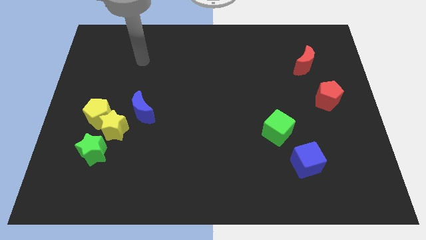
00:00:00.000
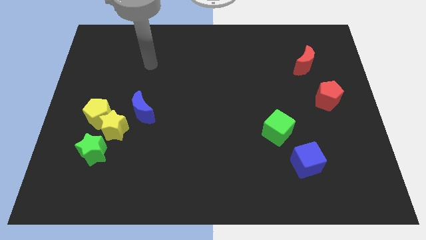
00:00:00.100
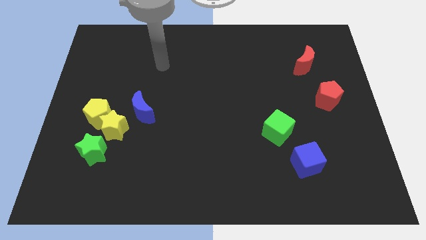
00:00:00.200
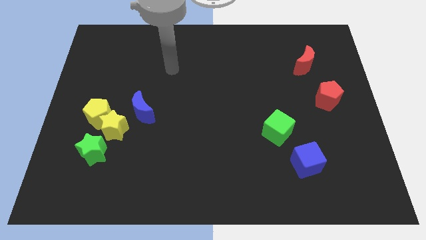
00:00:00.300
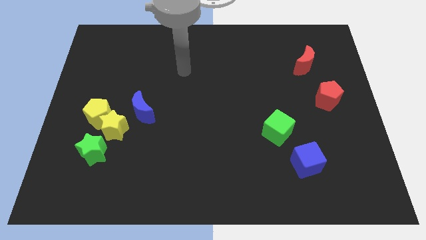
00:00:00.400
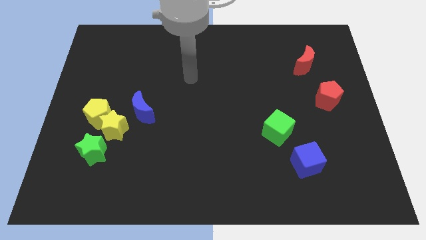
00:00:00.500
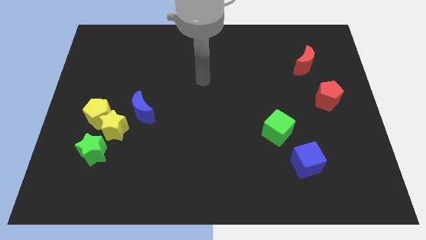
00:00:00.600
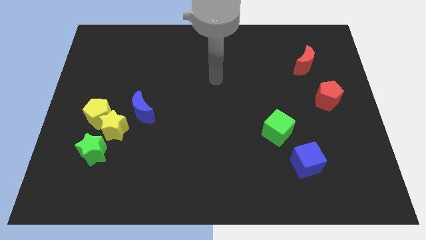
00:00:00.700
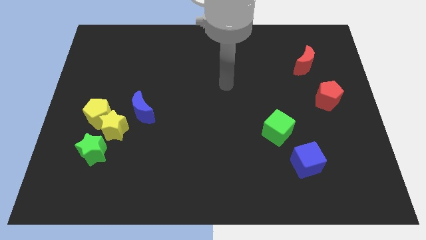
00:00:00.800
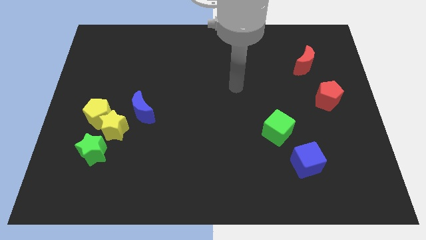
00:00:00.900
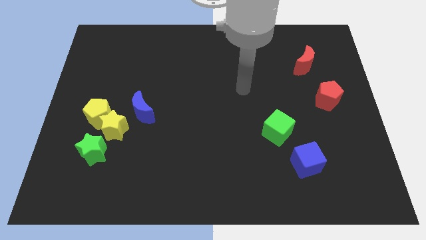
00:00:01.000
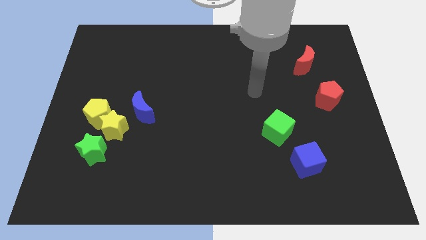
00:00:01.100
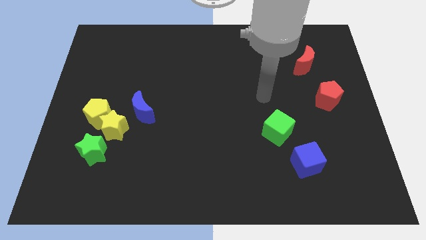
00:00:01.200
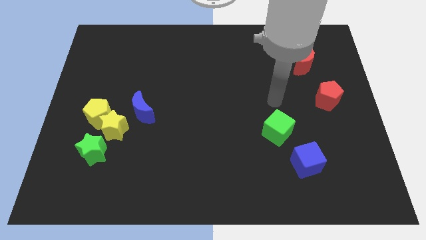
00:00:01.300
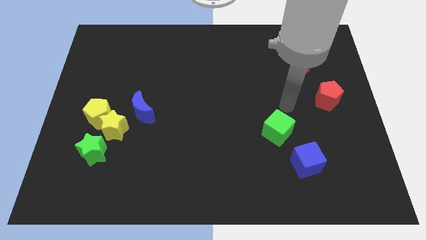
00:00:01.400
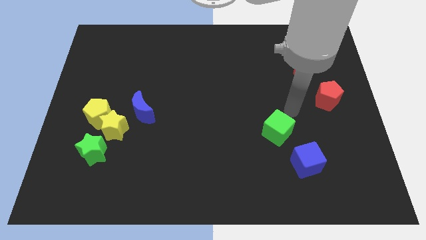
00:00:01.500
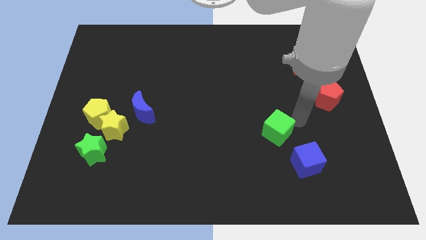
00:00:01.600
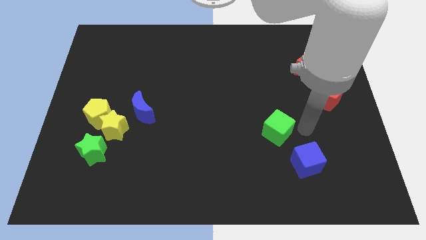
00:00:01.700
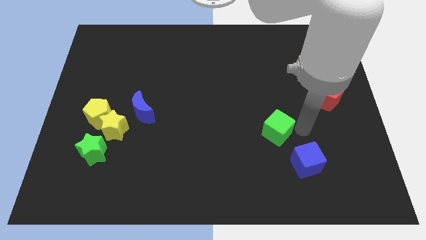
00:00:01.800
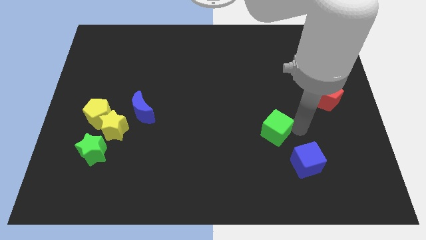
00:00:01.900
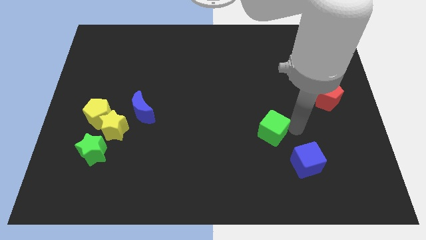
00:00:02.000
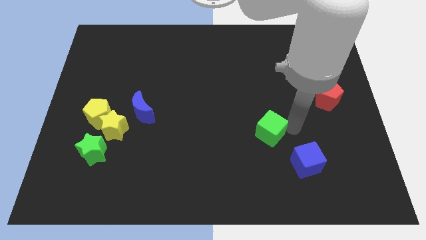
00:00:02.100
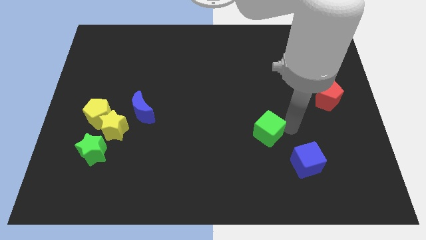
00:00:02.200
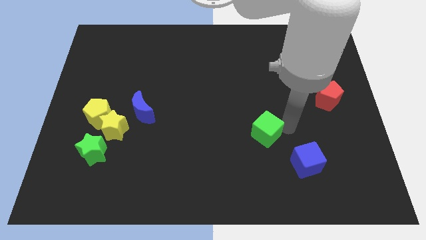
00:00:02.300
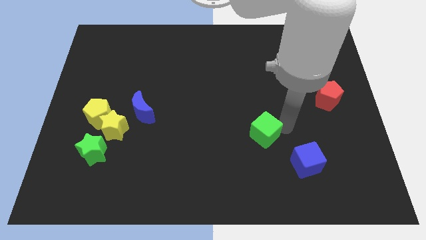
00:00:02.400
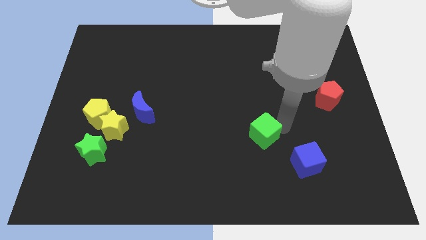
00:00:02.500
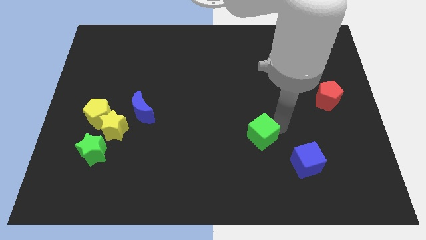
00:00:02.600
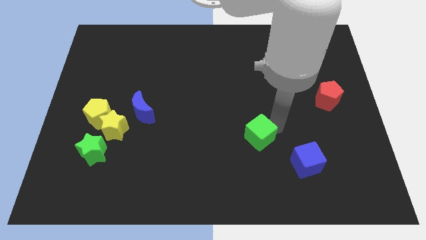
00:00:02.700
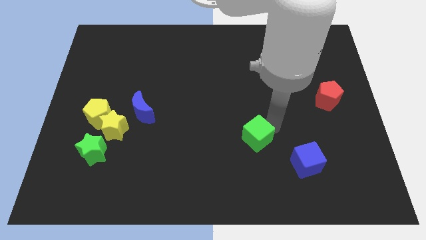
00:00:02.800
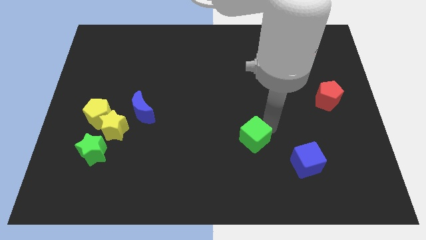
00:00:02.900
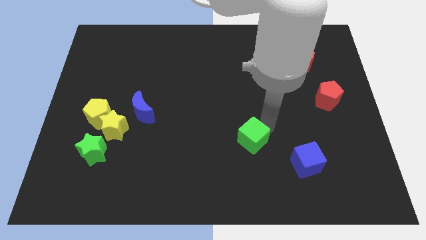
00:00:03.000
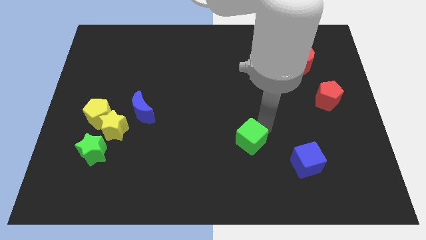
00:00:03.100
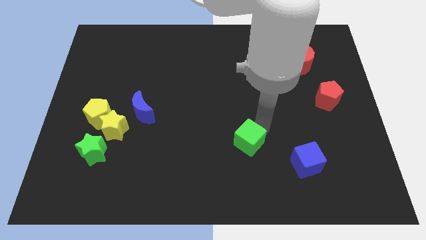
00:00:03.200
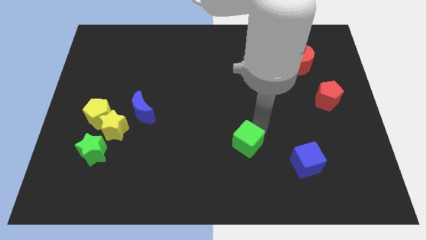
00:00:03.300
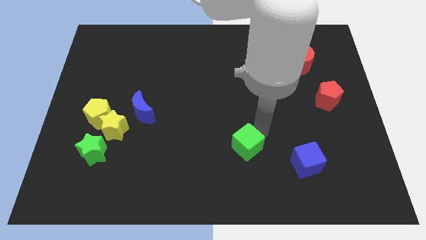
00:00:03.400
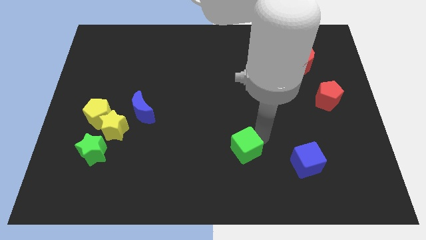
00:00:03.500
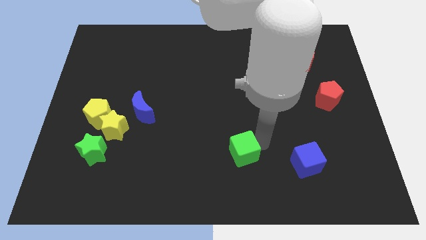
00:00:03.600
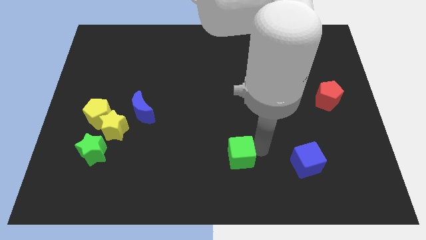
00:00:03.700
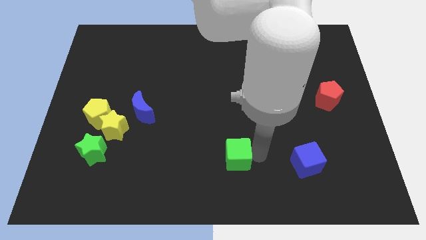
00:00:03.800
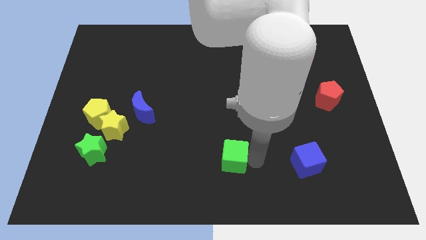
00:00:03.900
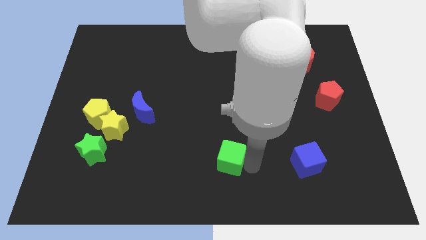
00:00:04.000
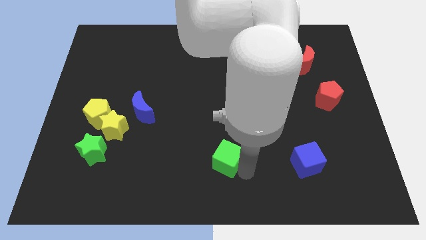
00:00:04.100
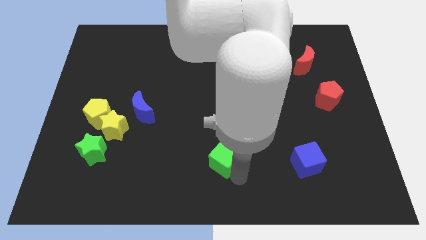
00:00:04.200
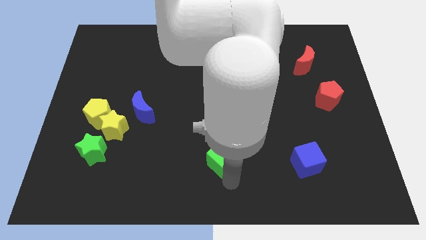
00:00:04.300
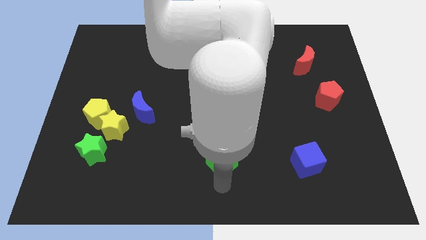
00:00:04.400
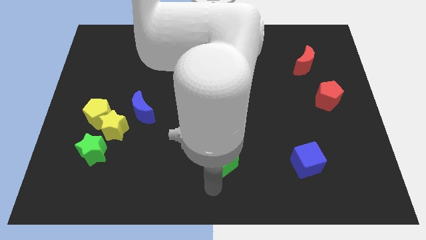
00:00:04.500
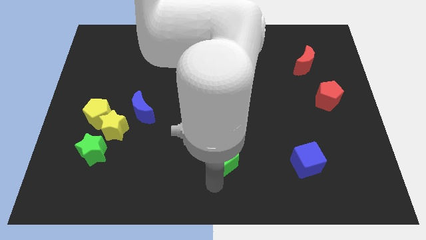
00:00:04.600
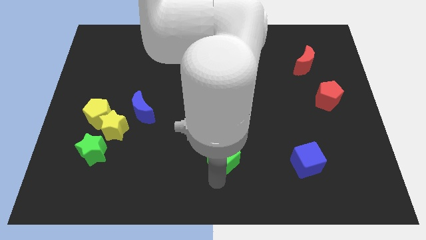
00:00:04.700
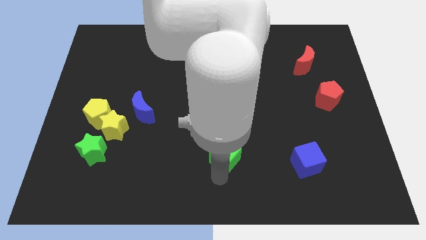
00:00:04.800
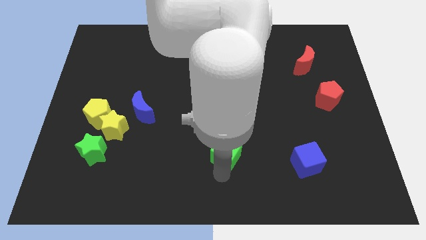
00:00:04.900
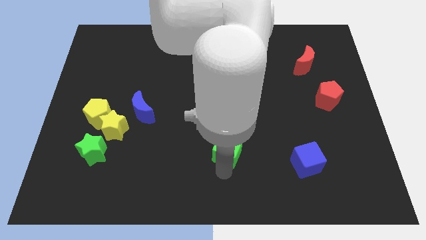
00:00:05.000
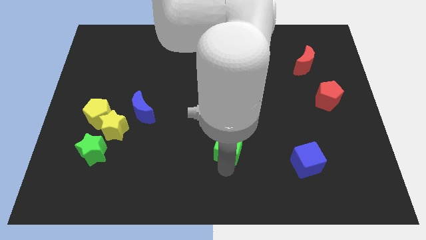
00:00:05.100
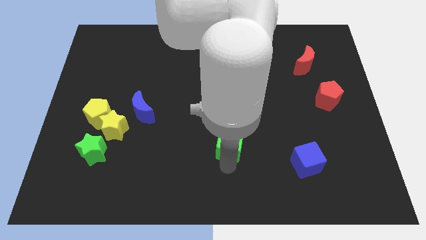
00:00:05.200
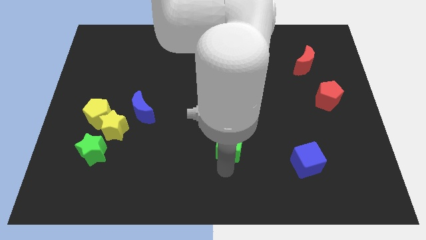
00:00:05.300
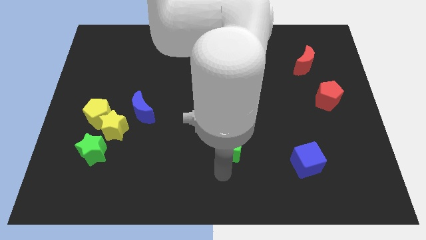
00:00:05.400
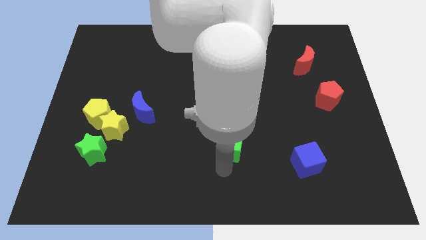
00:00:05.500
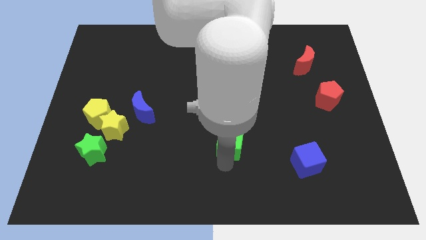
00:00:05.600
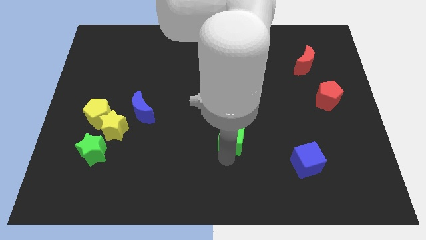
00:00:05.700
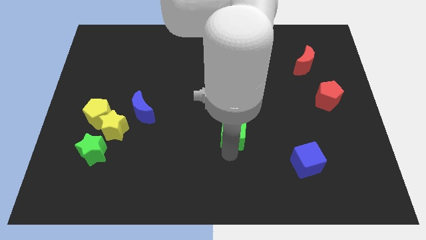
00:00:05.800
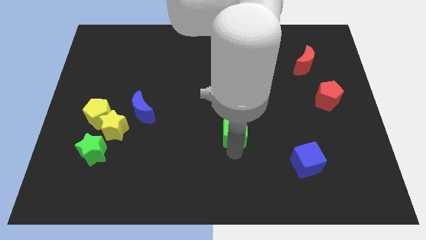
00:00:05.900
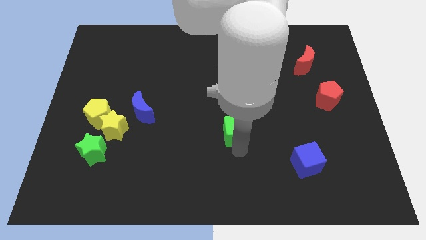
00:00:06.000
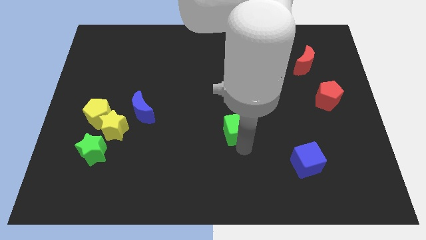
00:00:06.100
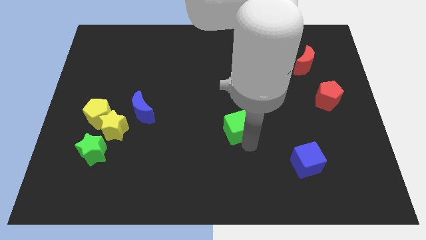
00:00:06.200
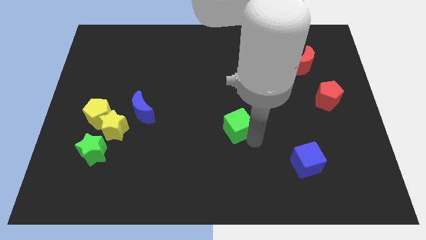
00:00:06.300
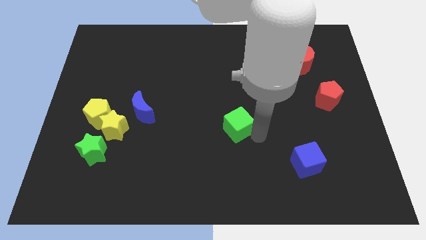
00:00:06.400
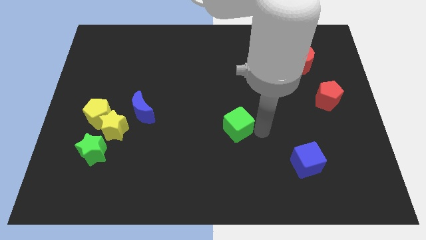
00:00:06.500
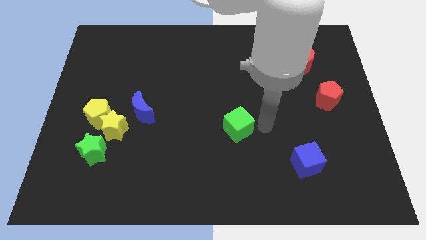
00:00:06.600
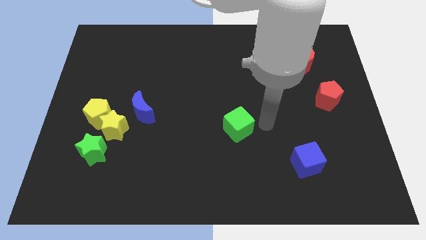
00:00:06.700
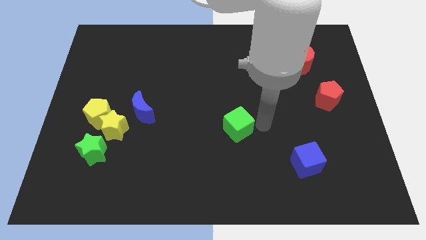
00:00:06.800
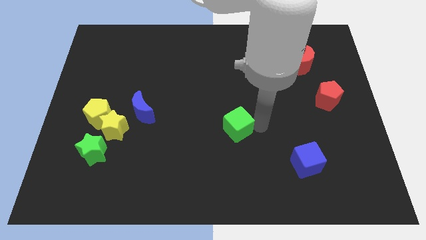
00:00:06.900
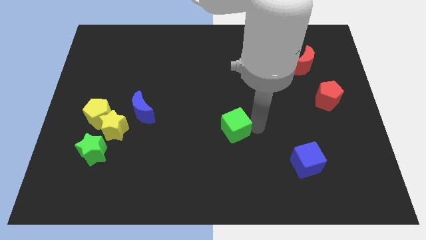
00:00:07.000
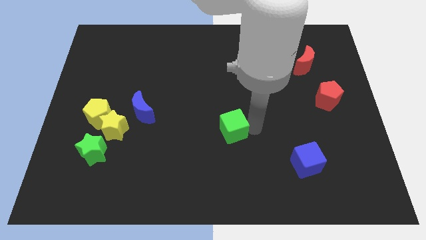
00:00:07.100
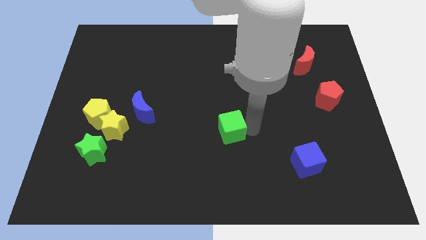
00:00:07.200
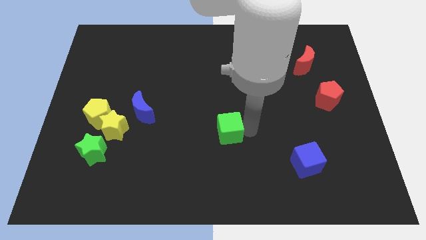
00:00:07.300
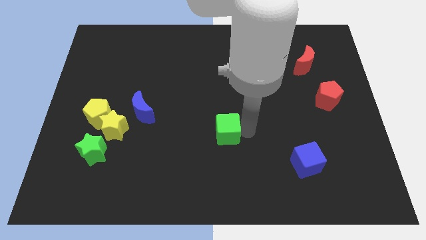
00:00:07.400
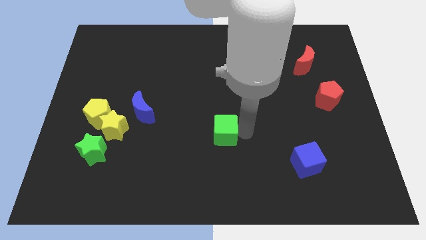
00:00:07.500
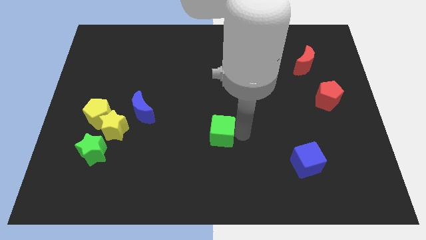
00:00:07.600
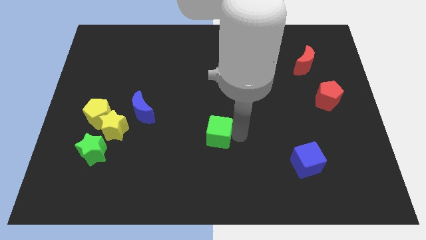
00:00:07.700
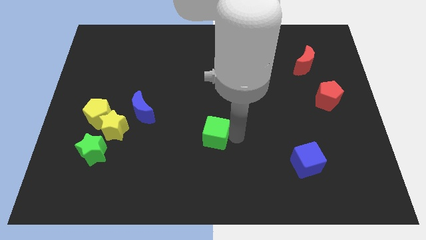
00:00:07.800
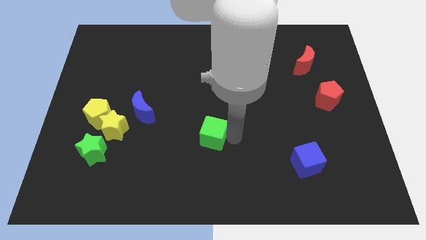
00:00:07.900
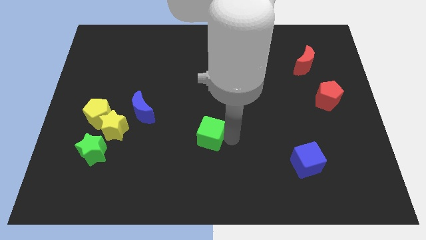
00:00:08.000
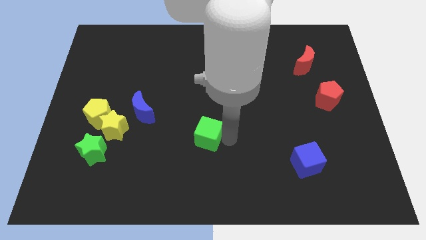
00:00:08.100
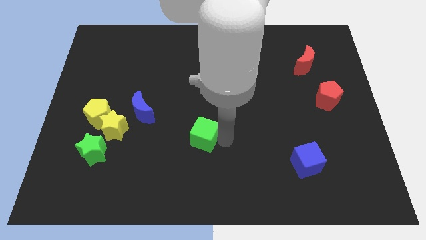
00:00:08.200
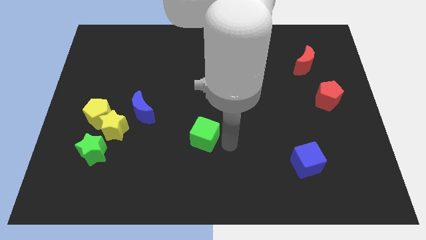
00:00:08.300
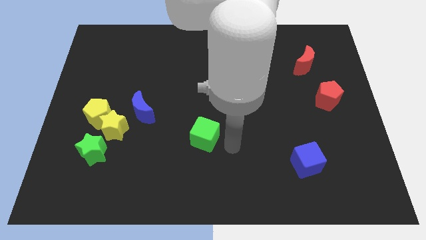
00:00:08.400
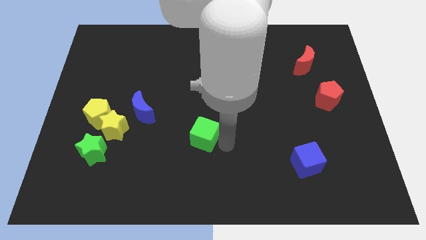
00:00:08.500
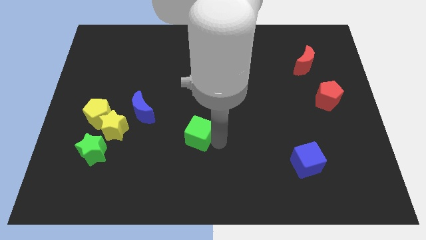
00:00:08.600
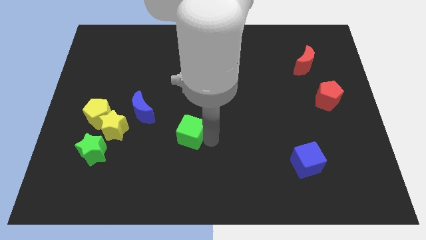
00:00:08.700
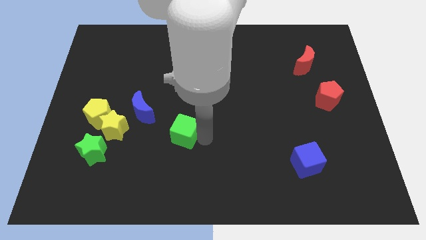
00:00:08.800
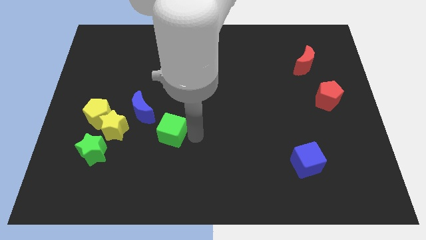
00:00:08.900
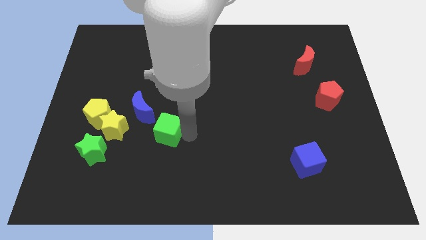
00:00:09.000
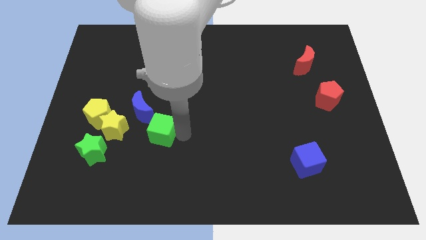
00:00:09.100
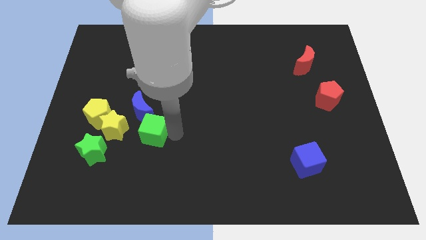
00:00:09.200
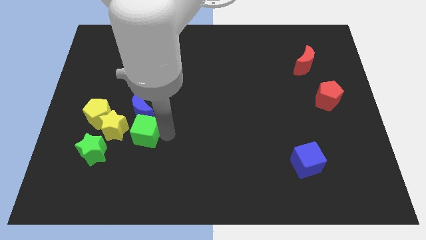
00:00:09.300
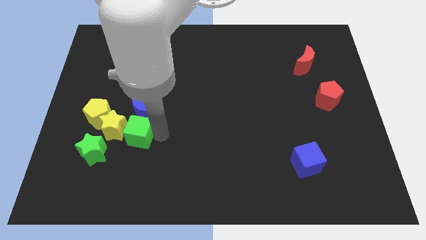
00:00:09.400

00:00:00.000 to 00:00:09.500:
move the green cube next to the yellow star
